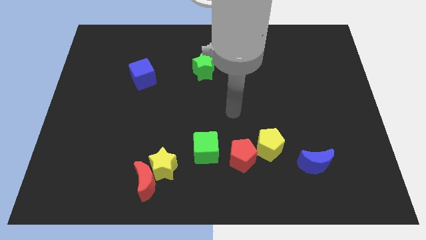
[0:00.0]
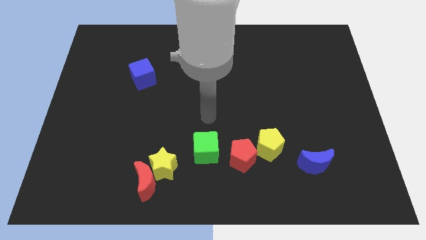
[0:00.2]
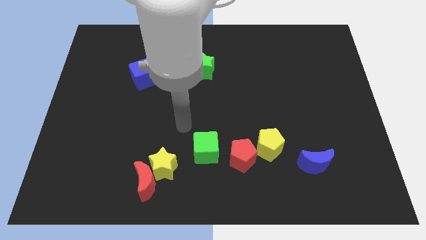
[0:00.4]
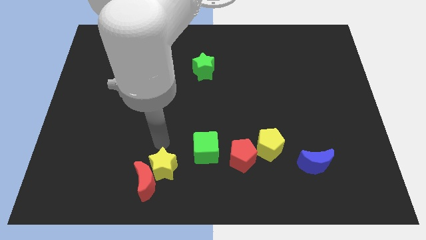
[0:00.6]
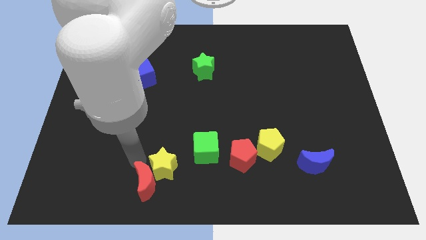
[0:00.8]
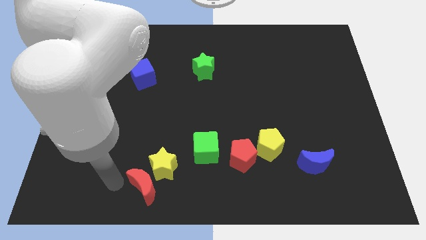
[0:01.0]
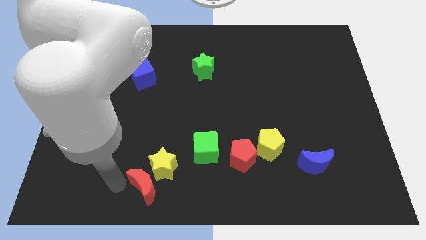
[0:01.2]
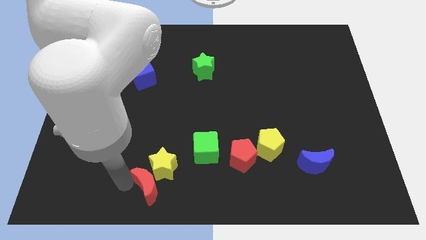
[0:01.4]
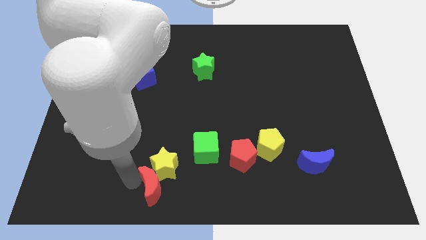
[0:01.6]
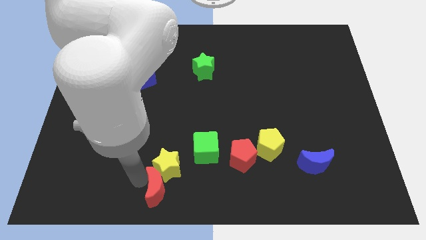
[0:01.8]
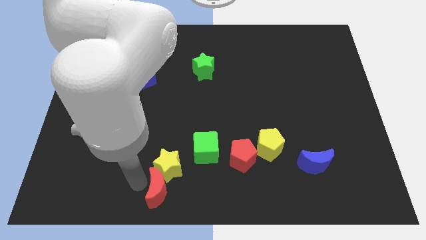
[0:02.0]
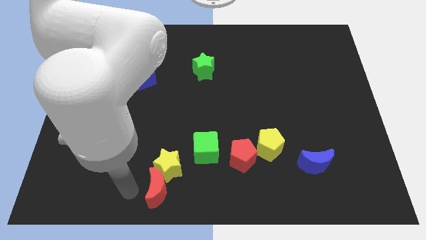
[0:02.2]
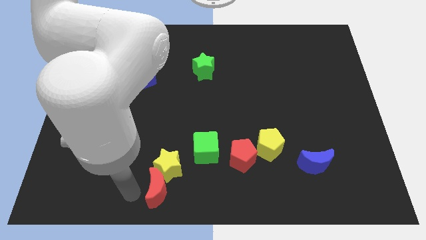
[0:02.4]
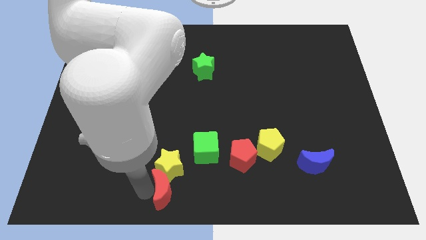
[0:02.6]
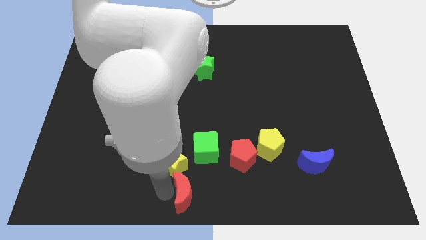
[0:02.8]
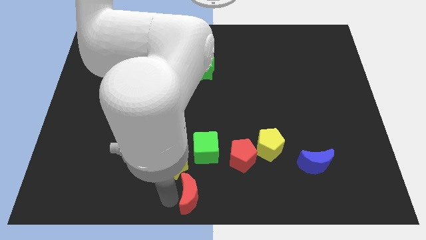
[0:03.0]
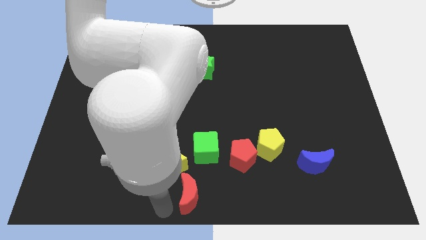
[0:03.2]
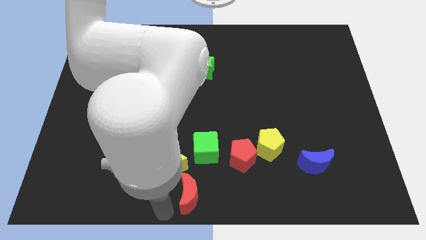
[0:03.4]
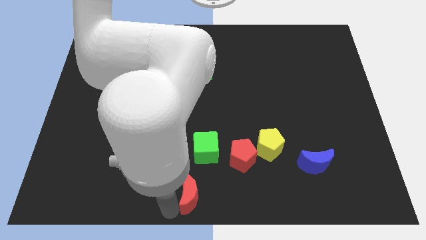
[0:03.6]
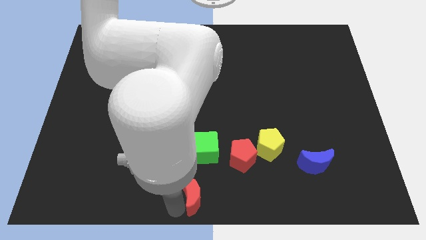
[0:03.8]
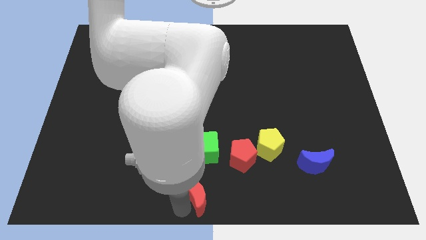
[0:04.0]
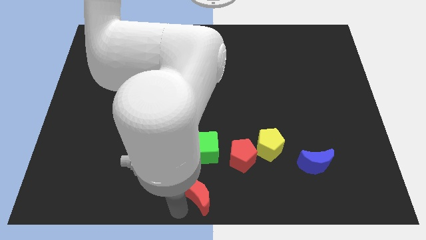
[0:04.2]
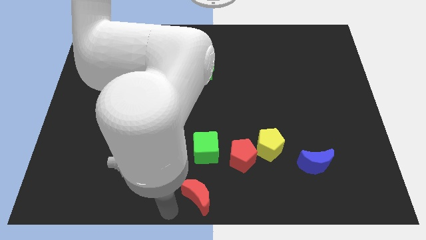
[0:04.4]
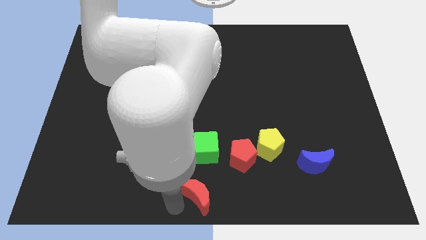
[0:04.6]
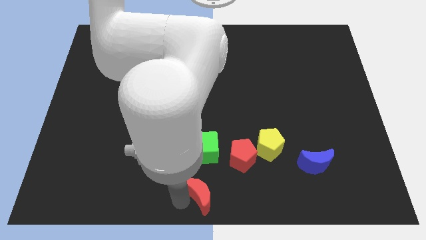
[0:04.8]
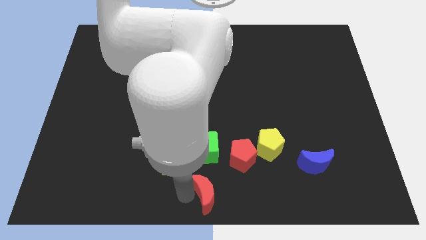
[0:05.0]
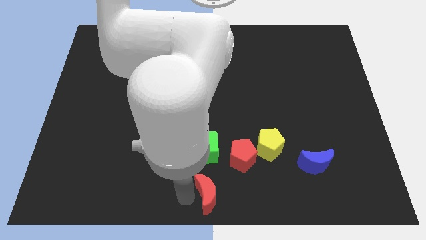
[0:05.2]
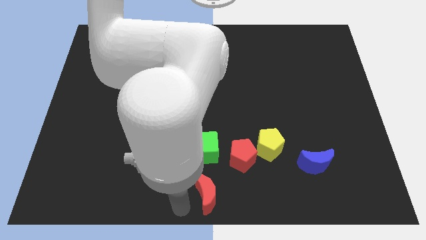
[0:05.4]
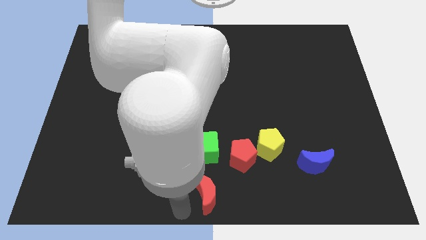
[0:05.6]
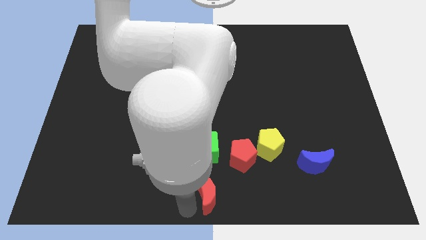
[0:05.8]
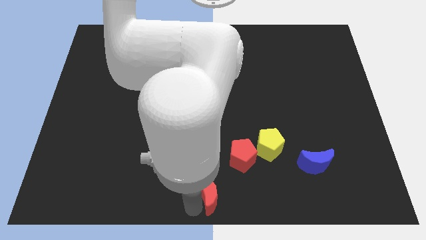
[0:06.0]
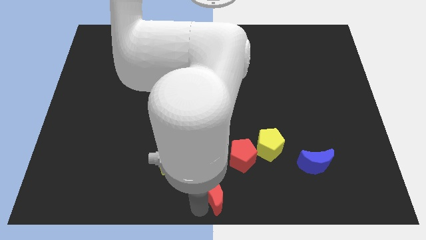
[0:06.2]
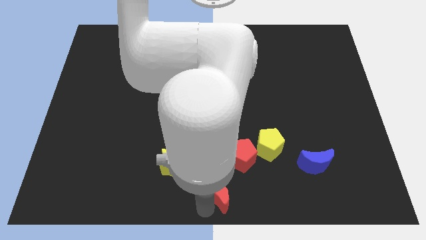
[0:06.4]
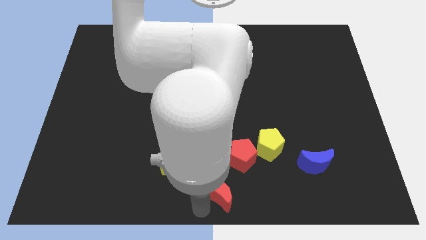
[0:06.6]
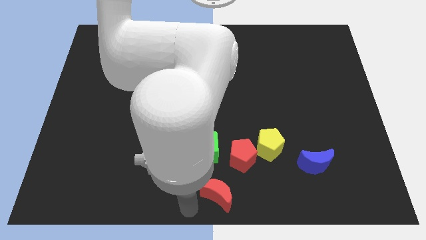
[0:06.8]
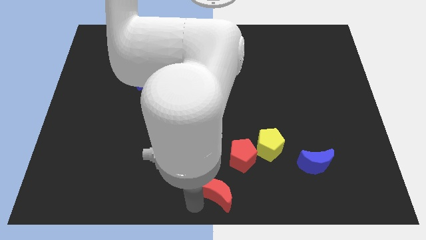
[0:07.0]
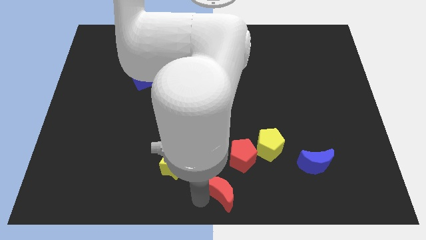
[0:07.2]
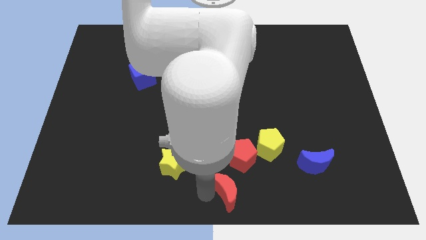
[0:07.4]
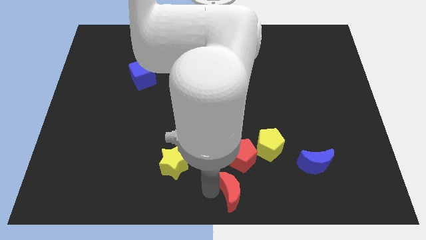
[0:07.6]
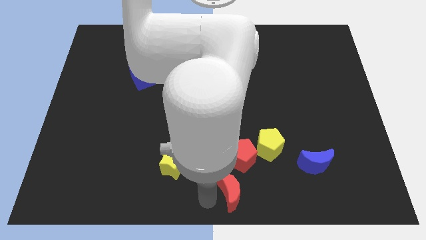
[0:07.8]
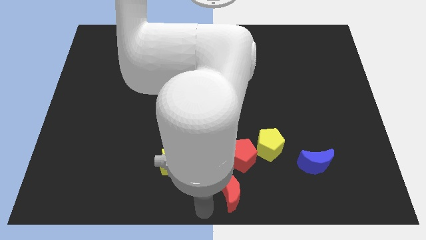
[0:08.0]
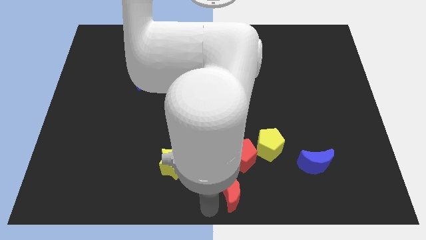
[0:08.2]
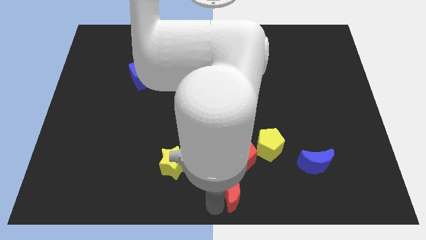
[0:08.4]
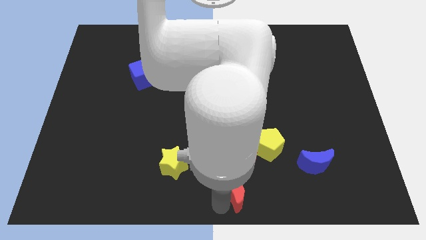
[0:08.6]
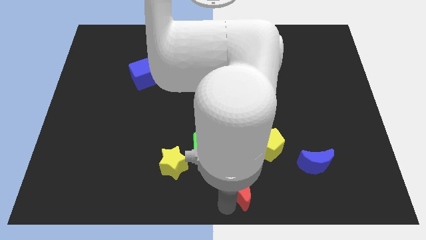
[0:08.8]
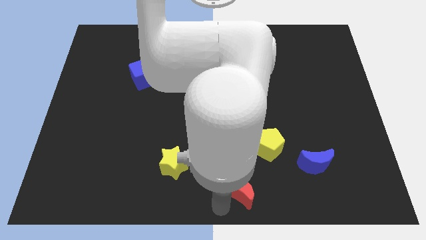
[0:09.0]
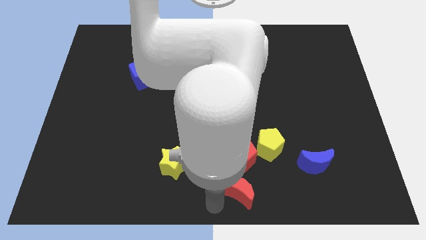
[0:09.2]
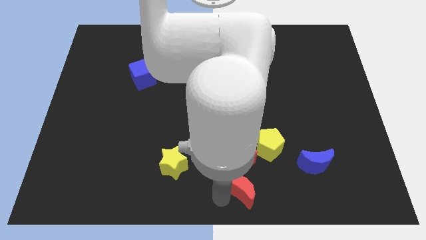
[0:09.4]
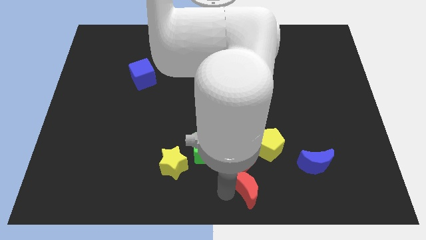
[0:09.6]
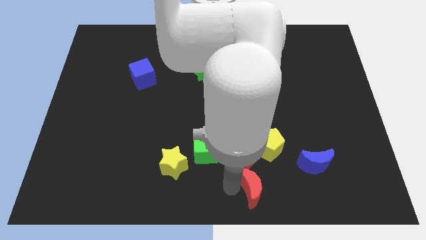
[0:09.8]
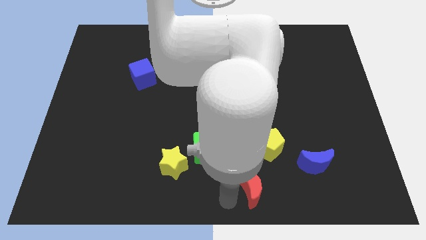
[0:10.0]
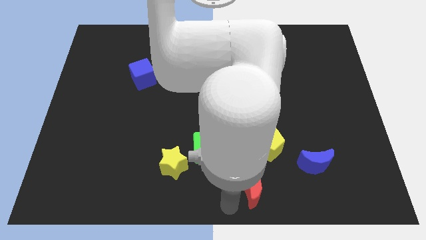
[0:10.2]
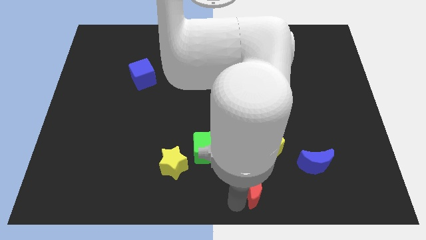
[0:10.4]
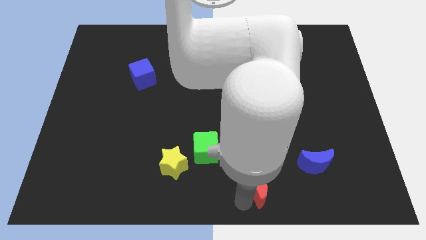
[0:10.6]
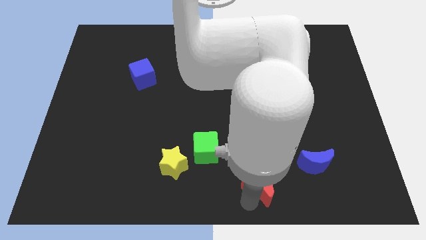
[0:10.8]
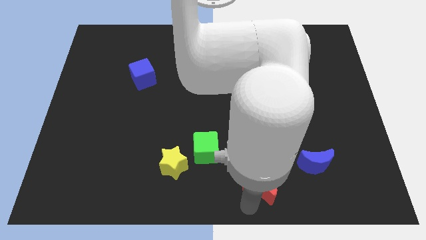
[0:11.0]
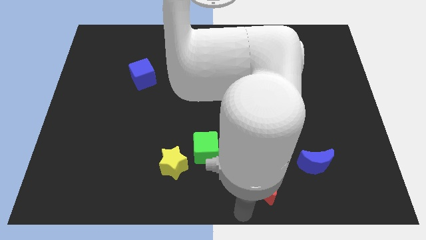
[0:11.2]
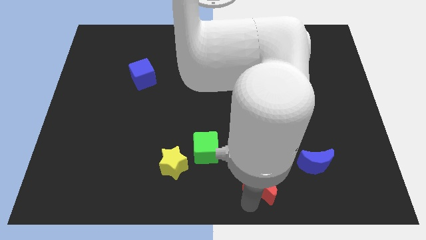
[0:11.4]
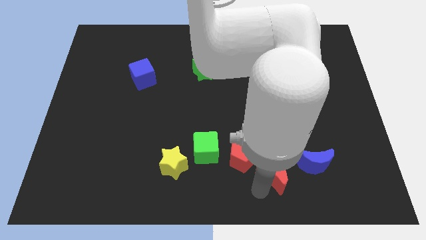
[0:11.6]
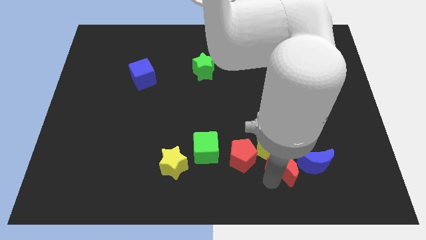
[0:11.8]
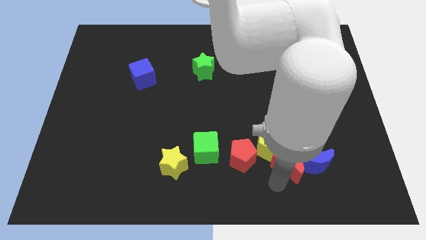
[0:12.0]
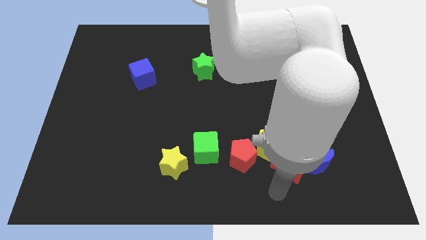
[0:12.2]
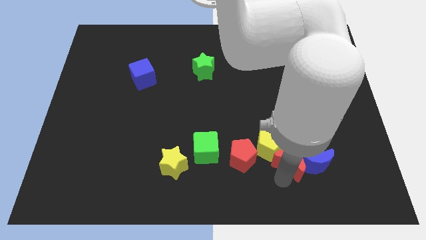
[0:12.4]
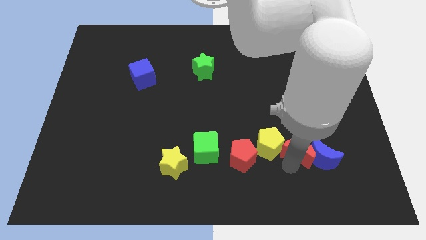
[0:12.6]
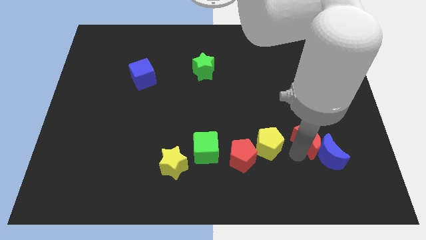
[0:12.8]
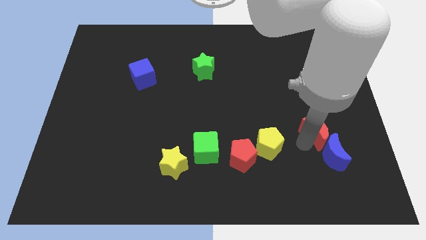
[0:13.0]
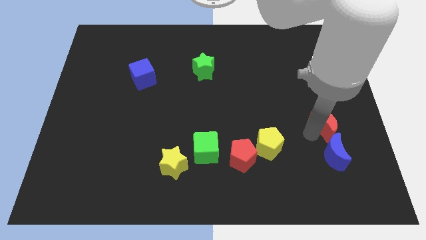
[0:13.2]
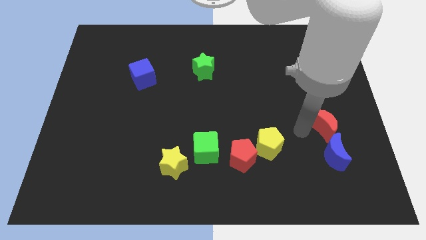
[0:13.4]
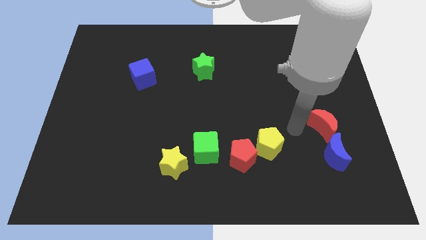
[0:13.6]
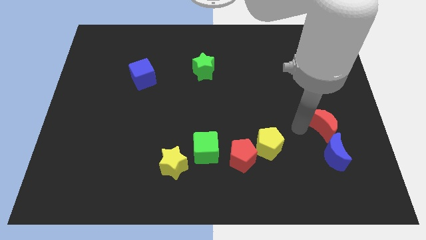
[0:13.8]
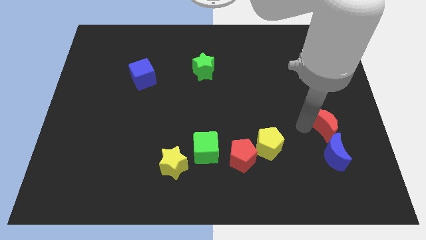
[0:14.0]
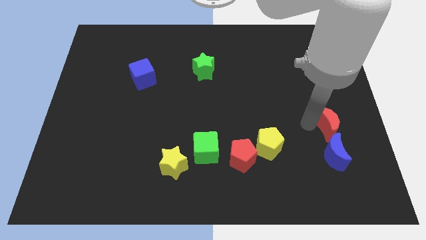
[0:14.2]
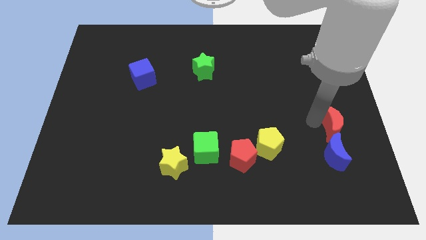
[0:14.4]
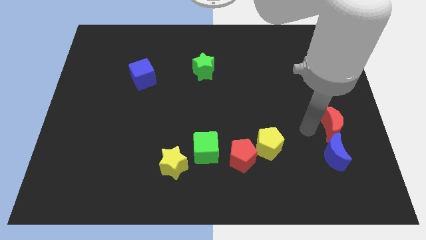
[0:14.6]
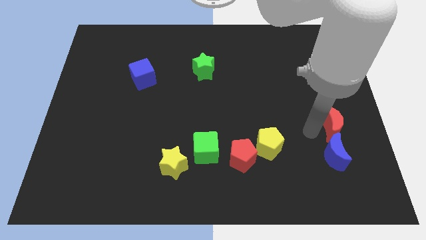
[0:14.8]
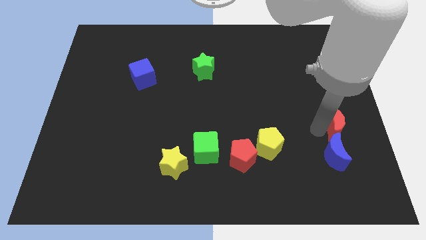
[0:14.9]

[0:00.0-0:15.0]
slide the red moon to the center right

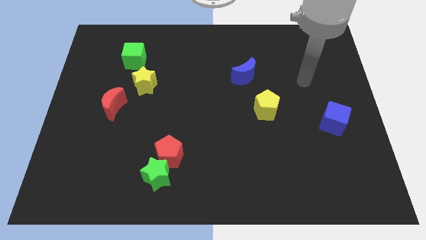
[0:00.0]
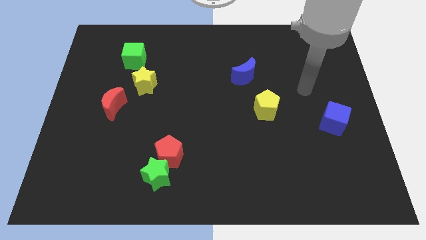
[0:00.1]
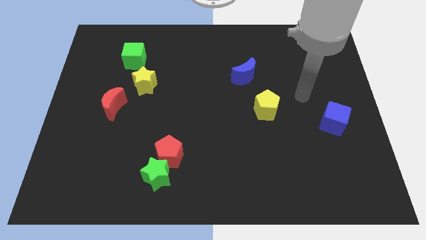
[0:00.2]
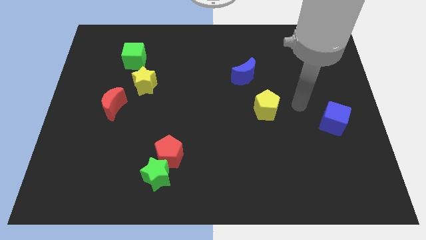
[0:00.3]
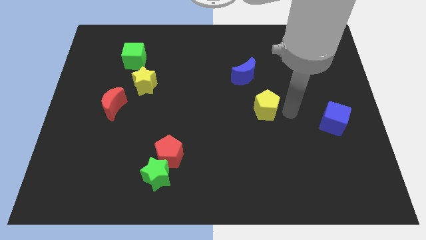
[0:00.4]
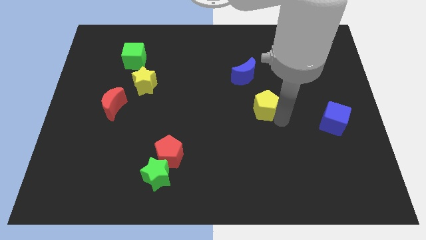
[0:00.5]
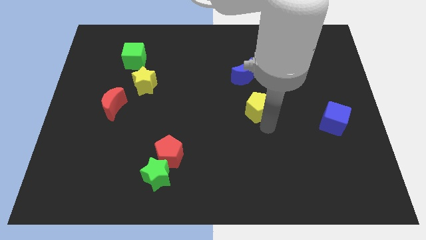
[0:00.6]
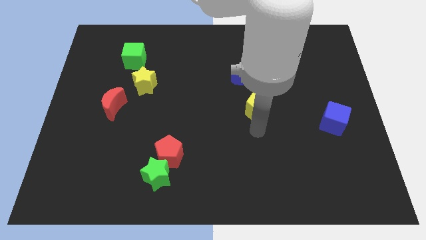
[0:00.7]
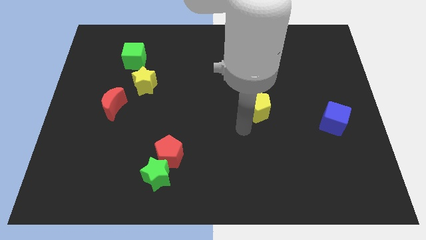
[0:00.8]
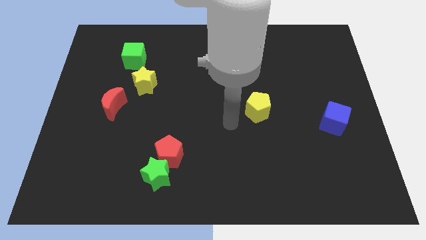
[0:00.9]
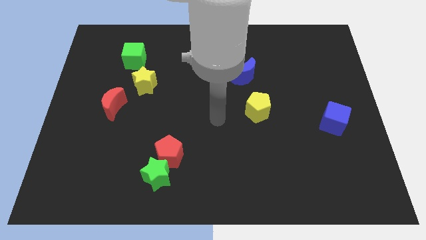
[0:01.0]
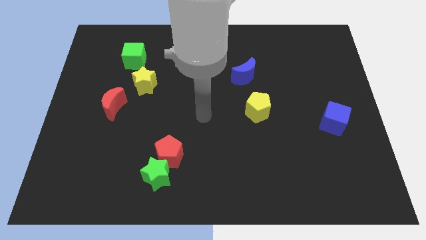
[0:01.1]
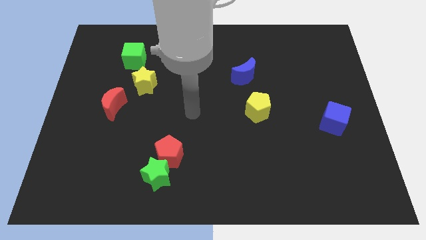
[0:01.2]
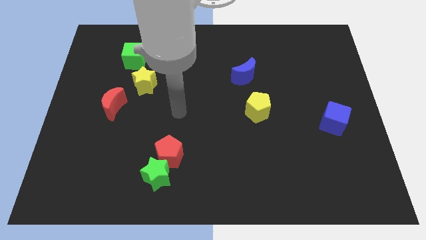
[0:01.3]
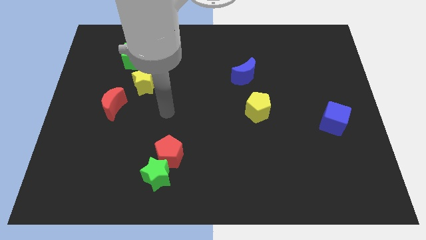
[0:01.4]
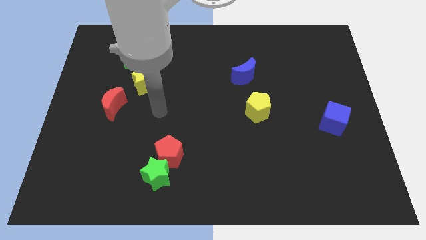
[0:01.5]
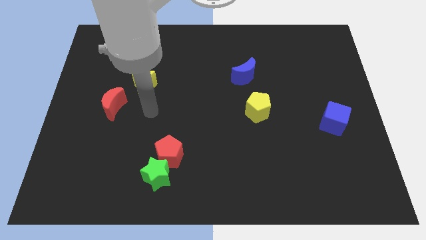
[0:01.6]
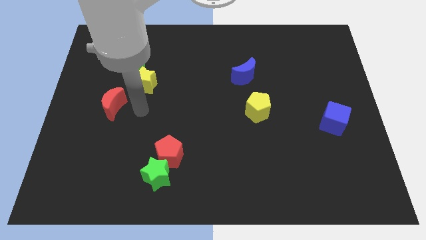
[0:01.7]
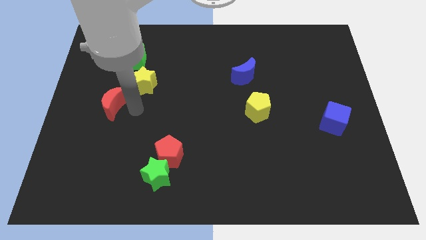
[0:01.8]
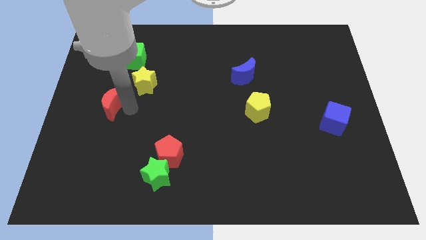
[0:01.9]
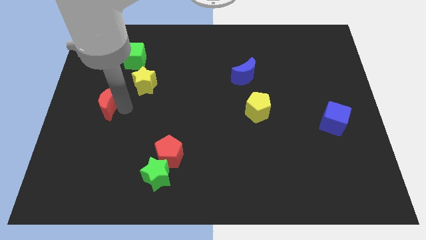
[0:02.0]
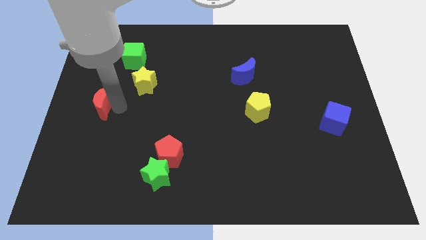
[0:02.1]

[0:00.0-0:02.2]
slide the red moon to the center left
